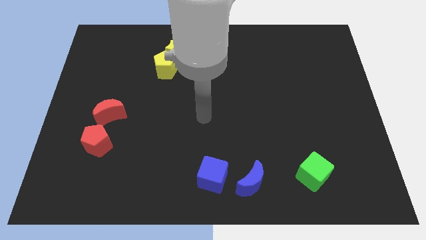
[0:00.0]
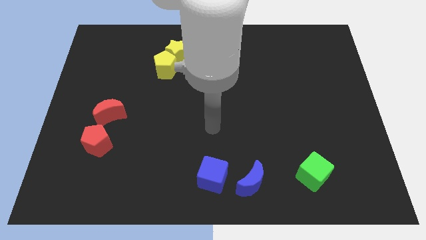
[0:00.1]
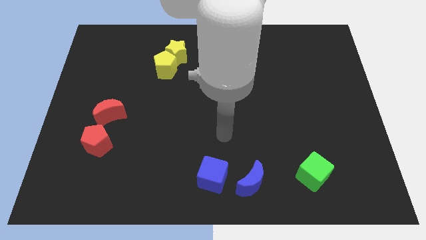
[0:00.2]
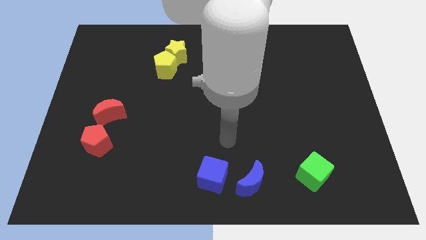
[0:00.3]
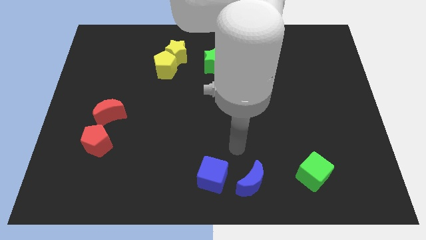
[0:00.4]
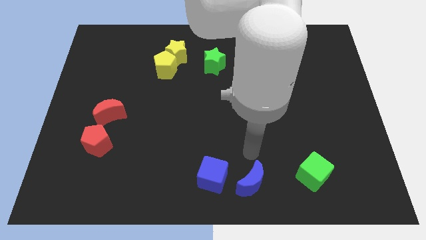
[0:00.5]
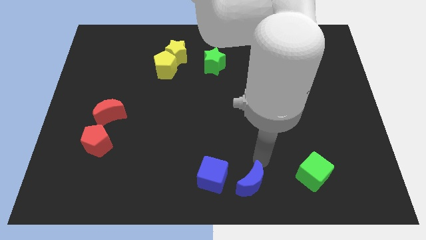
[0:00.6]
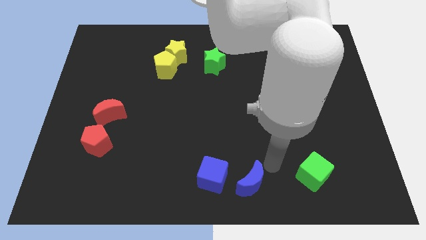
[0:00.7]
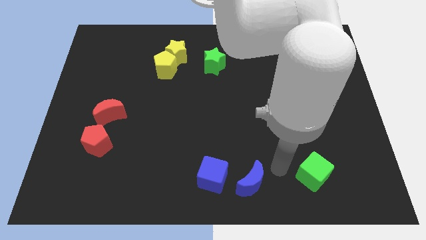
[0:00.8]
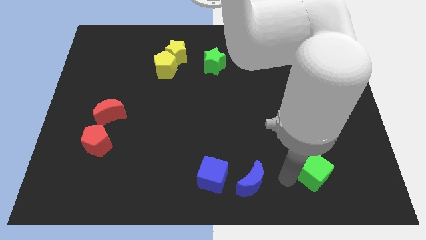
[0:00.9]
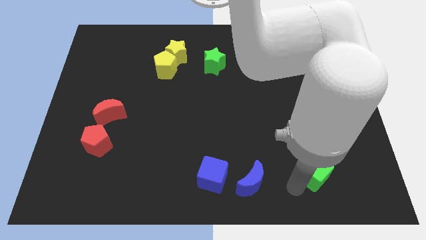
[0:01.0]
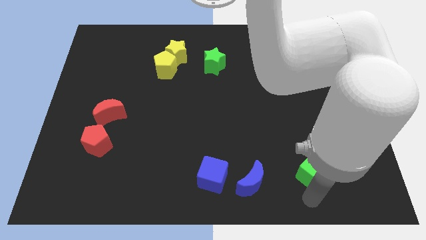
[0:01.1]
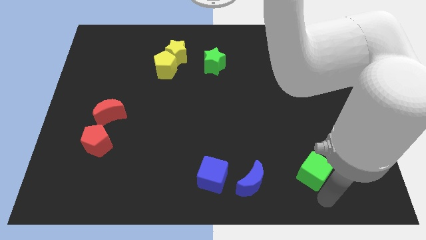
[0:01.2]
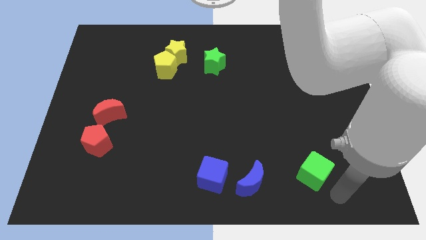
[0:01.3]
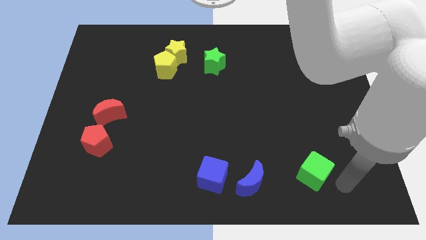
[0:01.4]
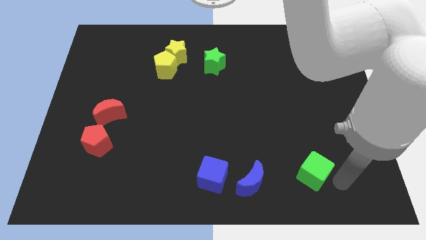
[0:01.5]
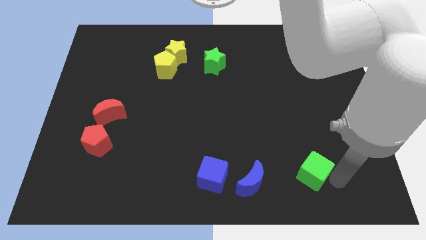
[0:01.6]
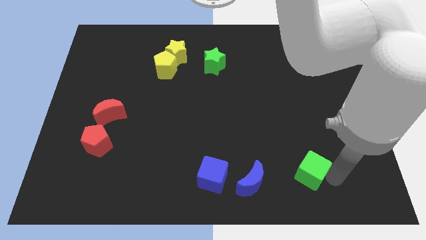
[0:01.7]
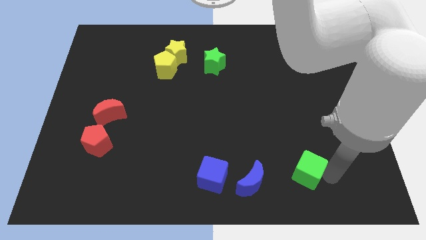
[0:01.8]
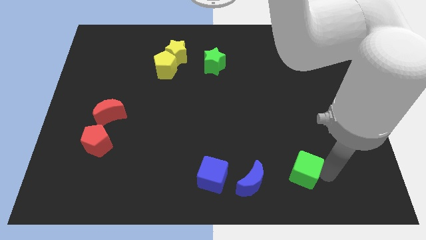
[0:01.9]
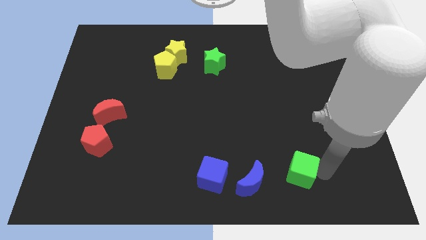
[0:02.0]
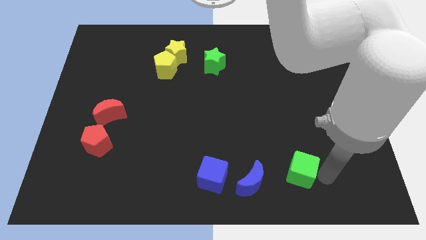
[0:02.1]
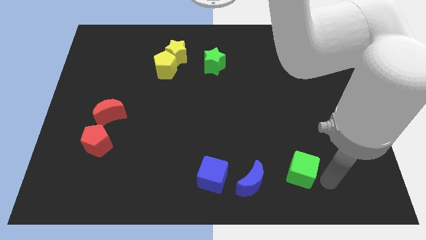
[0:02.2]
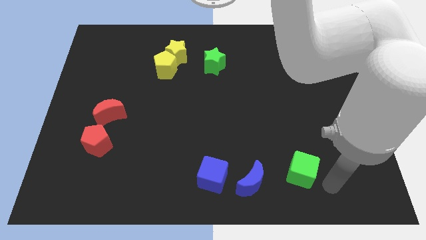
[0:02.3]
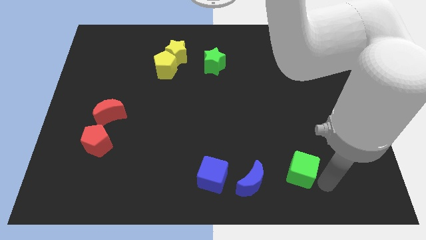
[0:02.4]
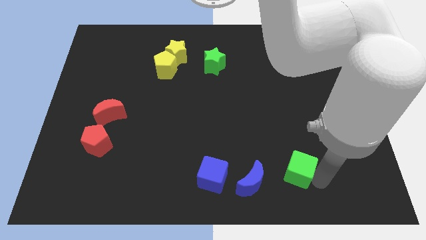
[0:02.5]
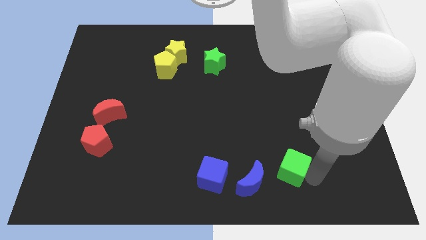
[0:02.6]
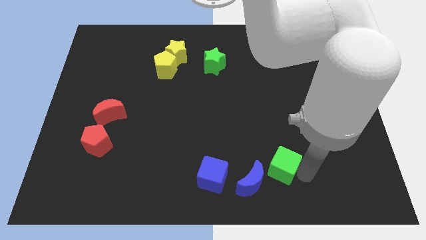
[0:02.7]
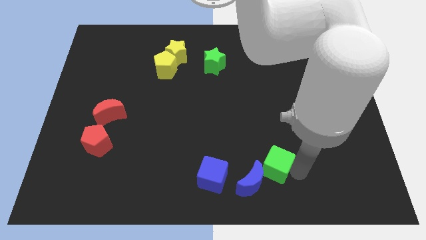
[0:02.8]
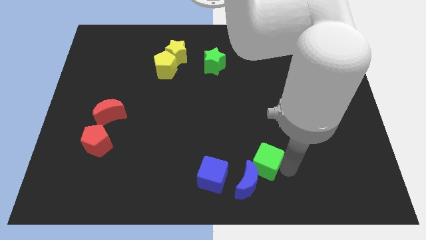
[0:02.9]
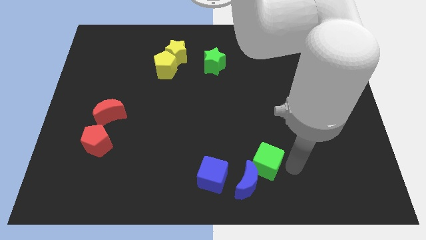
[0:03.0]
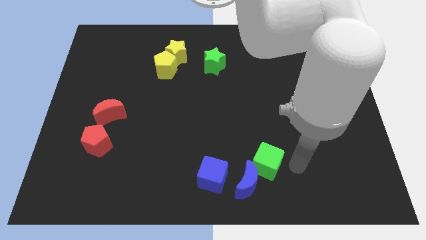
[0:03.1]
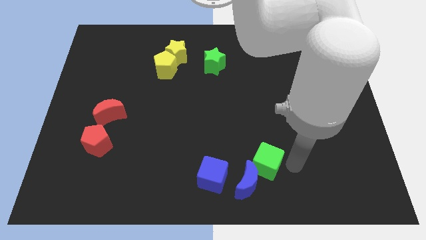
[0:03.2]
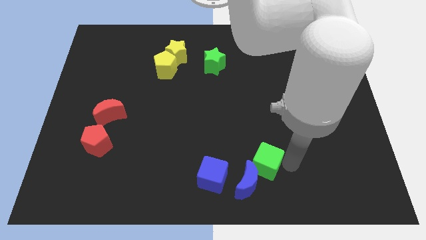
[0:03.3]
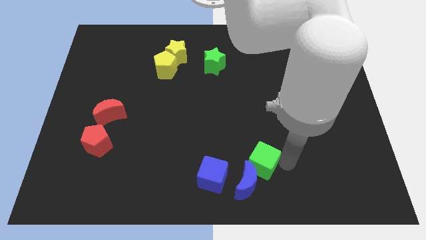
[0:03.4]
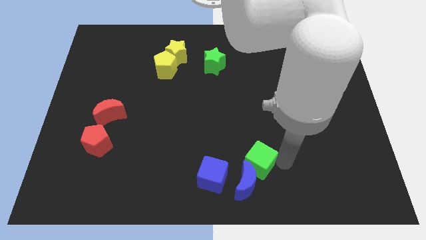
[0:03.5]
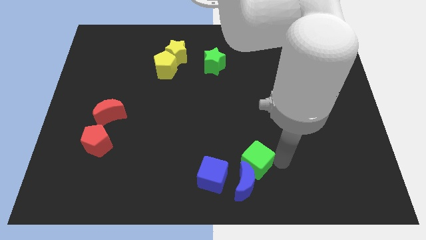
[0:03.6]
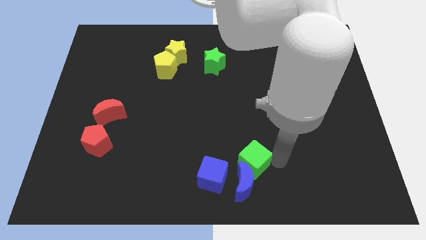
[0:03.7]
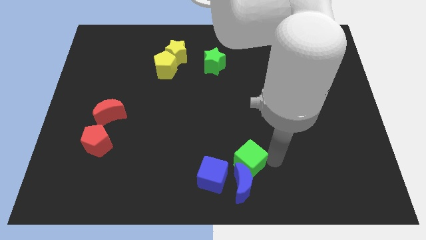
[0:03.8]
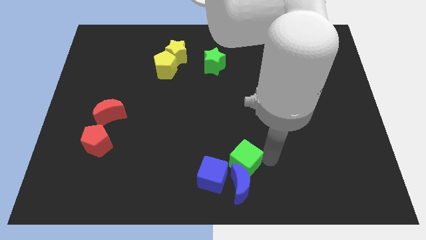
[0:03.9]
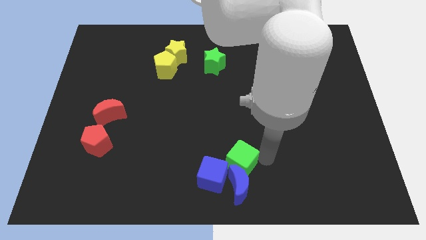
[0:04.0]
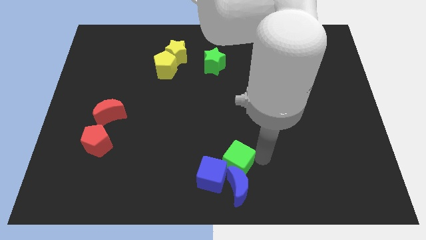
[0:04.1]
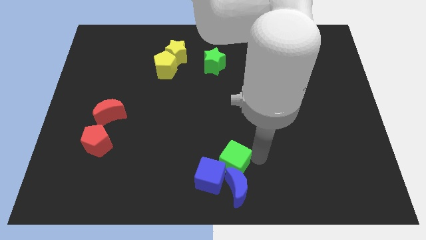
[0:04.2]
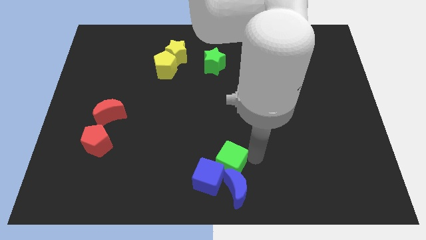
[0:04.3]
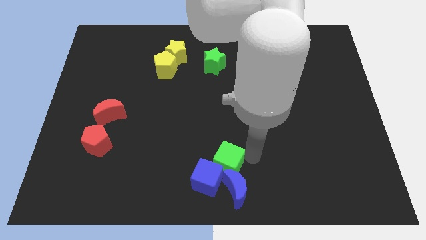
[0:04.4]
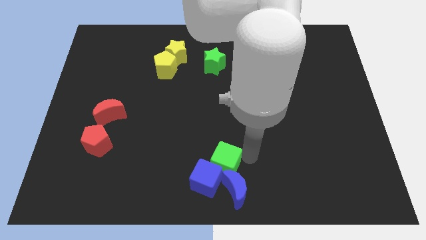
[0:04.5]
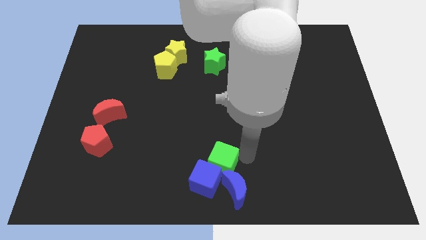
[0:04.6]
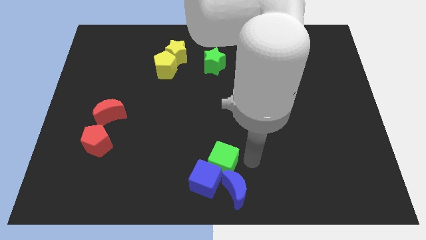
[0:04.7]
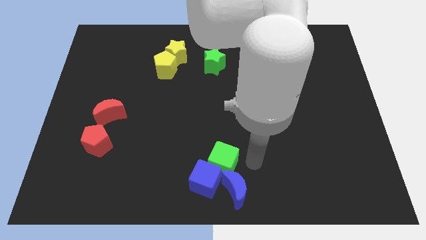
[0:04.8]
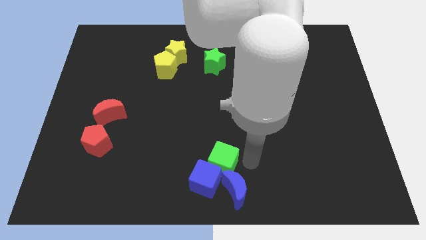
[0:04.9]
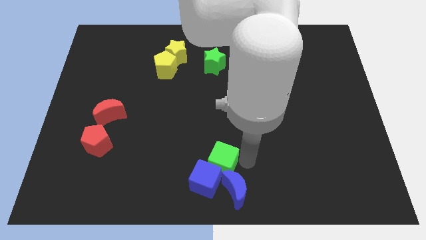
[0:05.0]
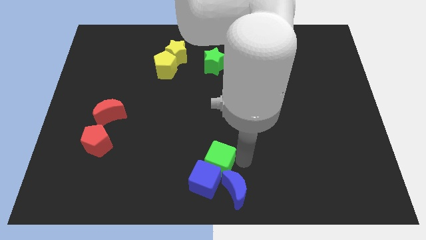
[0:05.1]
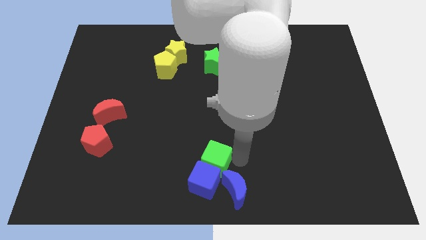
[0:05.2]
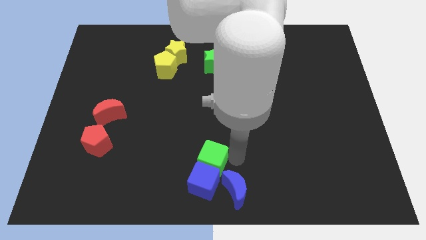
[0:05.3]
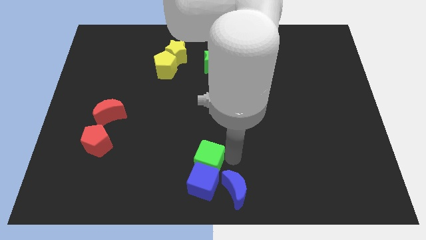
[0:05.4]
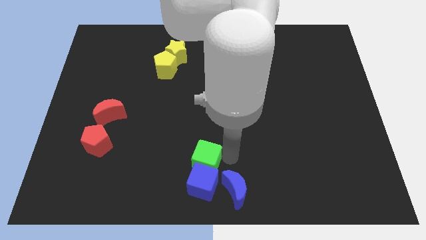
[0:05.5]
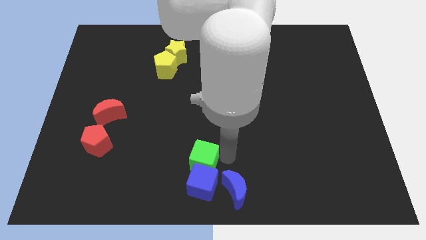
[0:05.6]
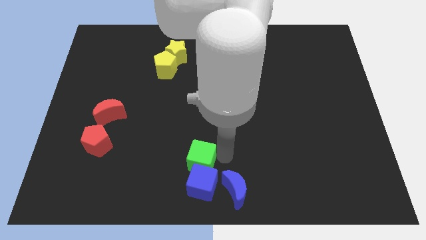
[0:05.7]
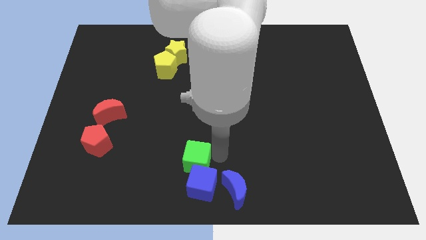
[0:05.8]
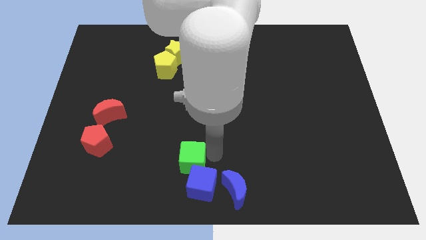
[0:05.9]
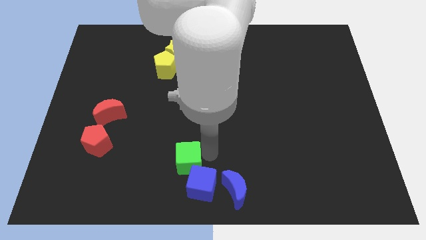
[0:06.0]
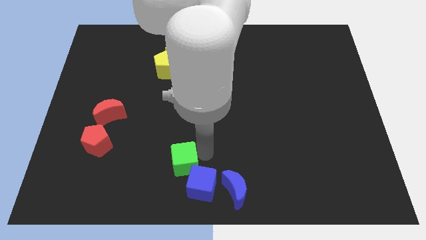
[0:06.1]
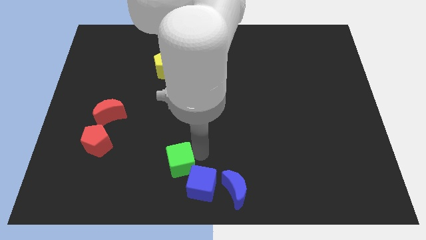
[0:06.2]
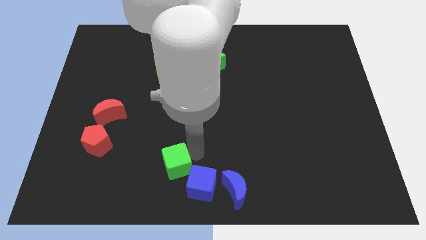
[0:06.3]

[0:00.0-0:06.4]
put the green cube left of the blue cube
